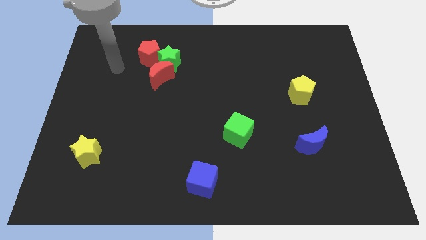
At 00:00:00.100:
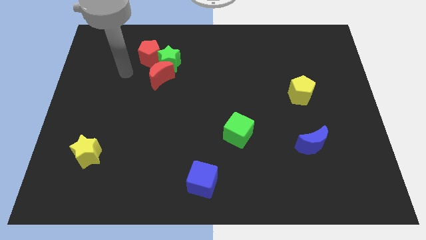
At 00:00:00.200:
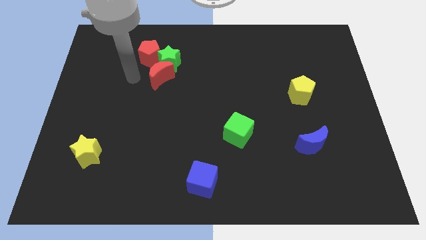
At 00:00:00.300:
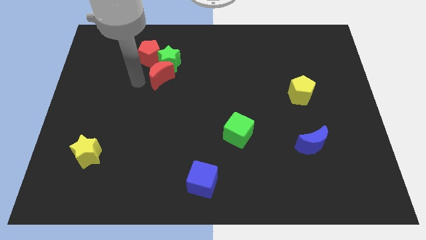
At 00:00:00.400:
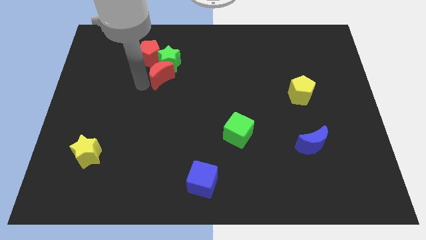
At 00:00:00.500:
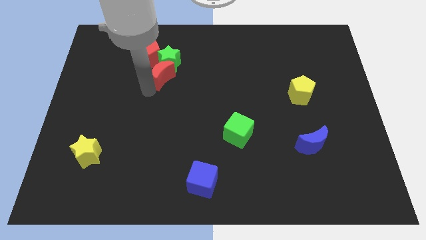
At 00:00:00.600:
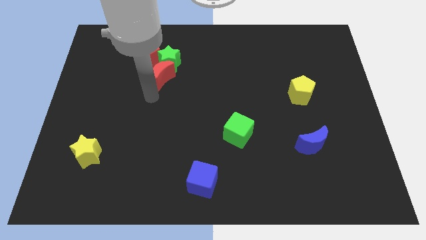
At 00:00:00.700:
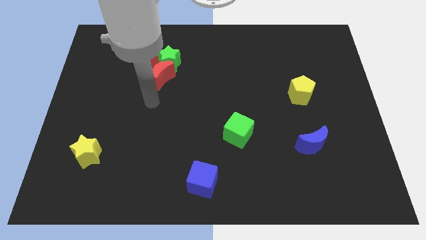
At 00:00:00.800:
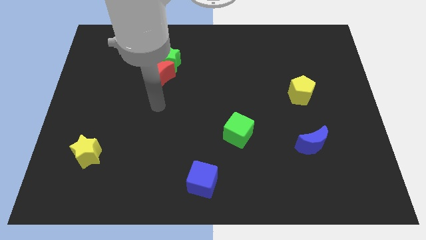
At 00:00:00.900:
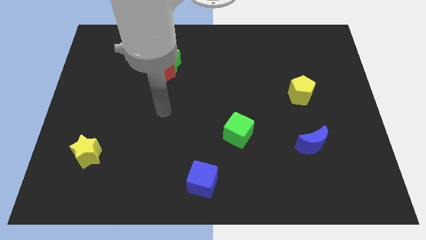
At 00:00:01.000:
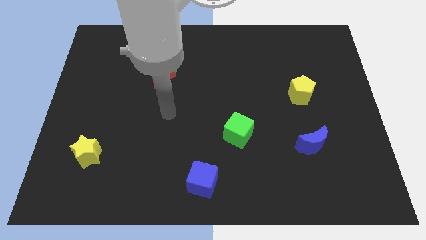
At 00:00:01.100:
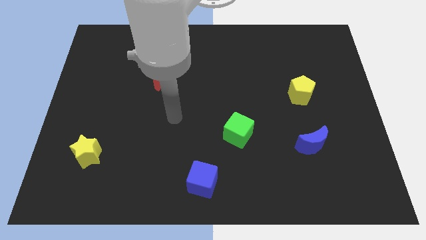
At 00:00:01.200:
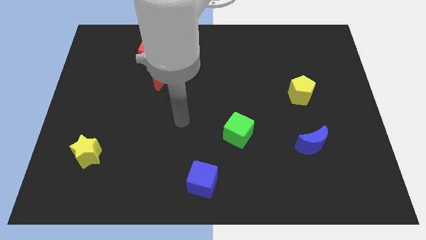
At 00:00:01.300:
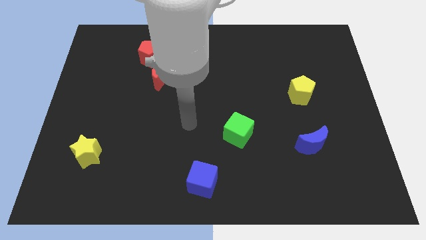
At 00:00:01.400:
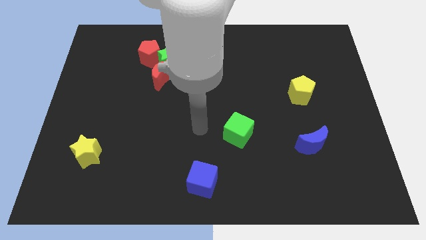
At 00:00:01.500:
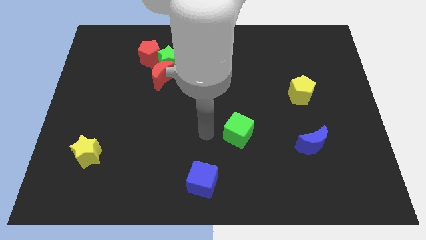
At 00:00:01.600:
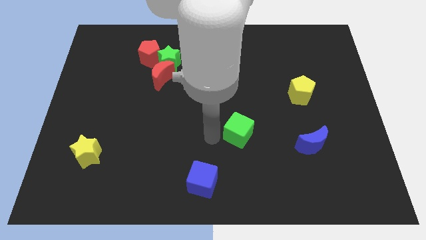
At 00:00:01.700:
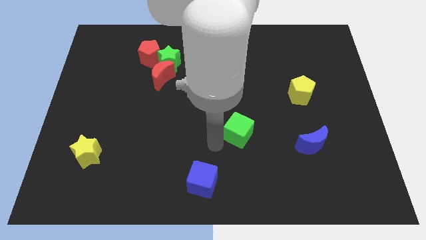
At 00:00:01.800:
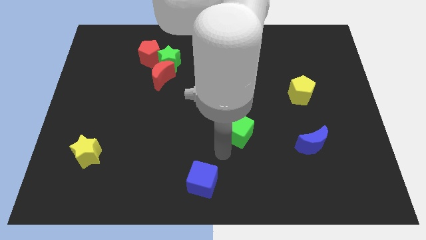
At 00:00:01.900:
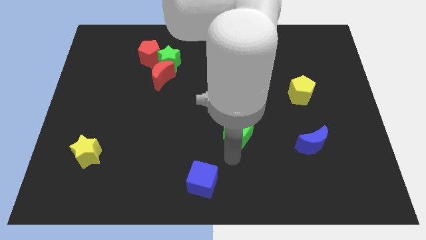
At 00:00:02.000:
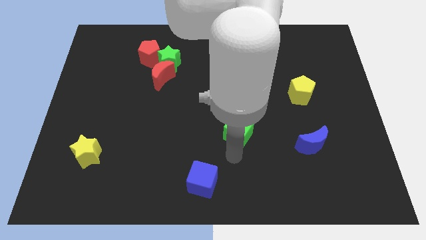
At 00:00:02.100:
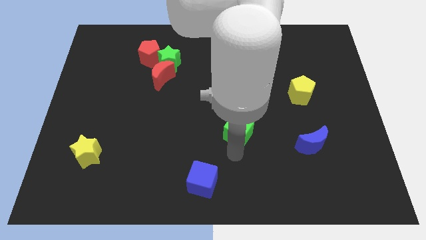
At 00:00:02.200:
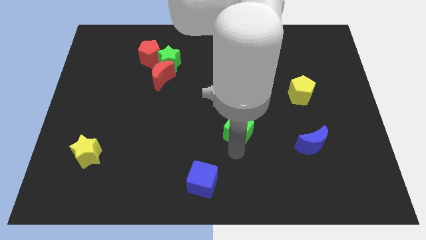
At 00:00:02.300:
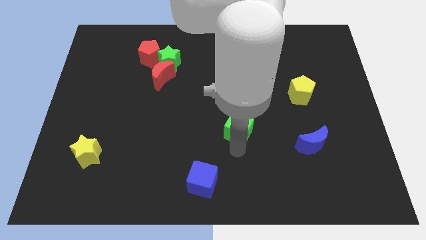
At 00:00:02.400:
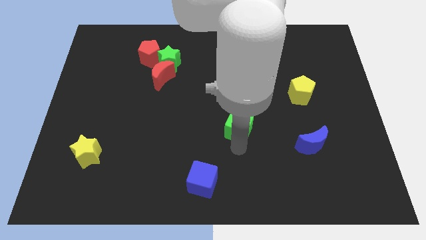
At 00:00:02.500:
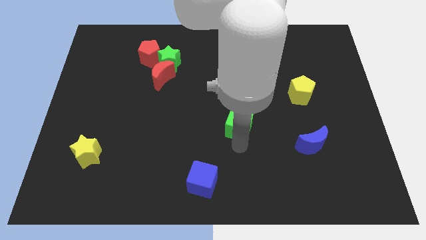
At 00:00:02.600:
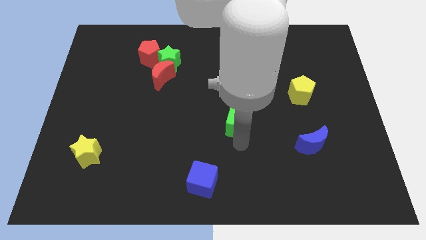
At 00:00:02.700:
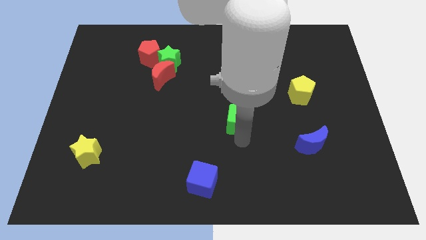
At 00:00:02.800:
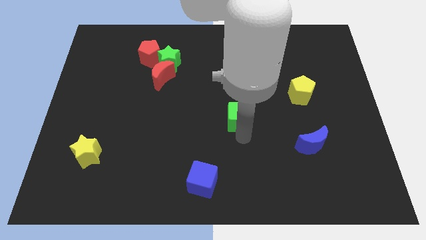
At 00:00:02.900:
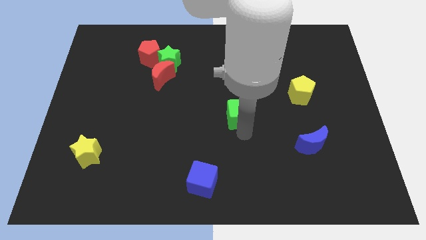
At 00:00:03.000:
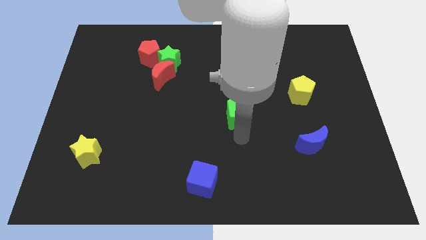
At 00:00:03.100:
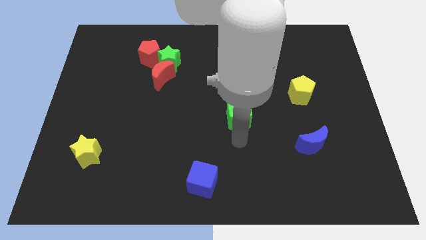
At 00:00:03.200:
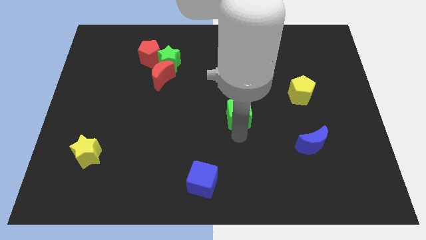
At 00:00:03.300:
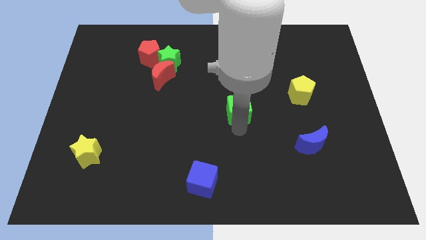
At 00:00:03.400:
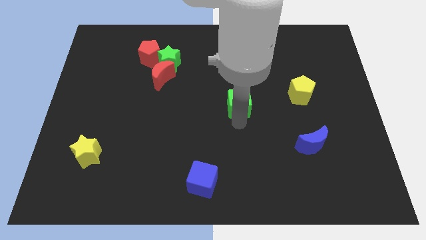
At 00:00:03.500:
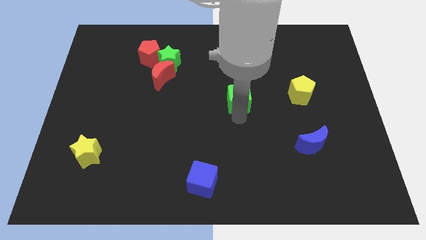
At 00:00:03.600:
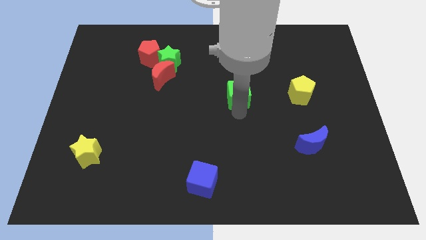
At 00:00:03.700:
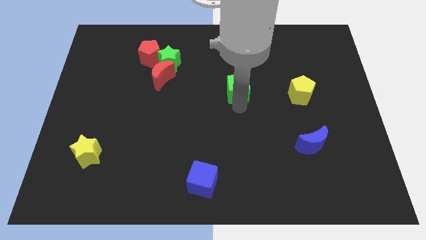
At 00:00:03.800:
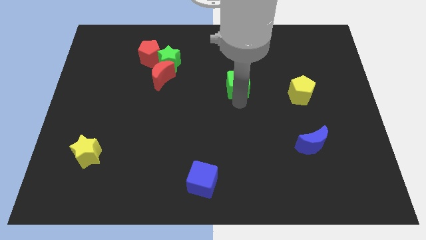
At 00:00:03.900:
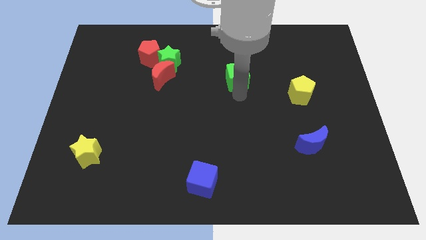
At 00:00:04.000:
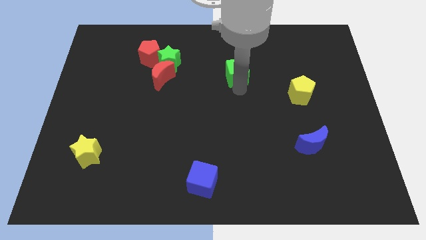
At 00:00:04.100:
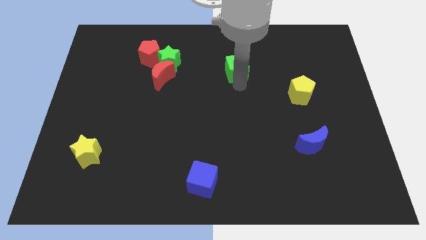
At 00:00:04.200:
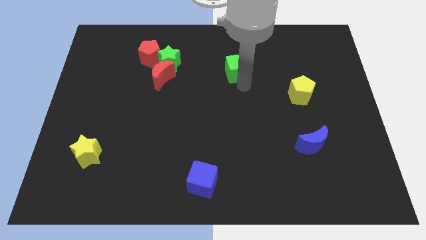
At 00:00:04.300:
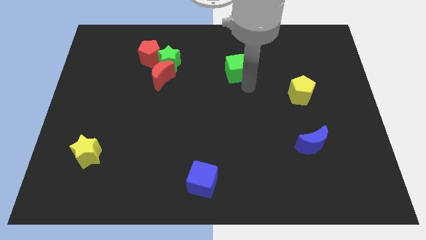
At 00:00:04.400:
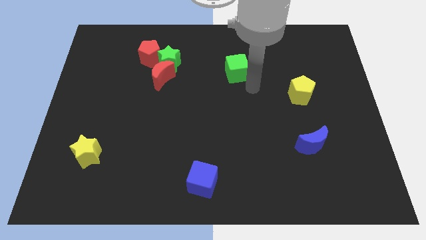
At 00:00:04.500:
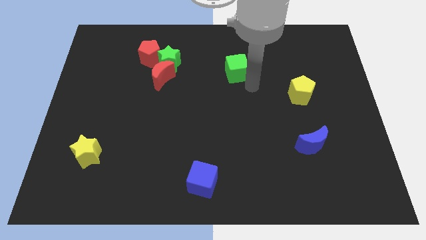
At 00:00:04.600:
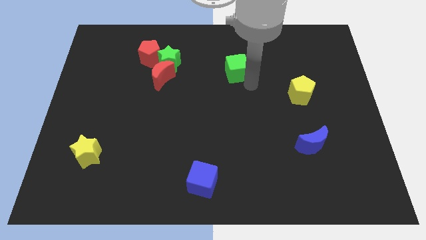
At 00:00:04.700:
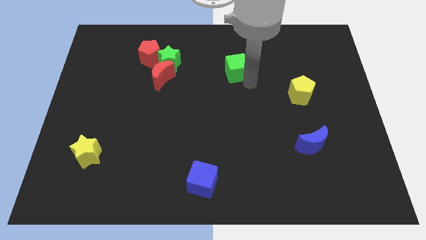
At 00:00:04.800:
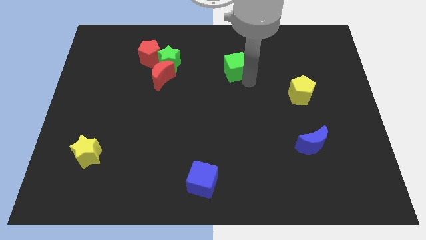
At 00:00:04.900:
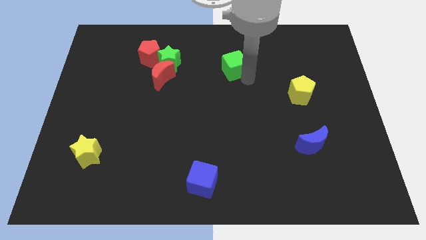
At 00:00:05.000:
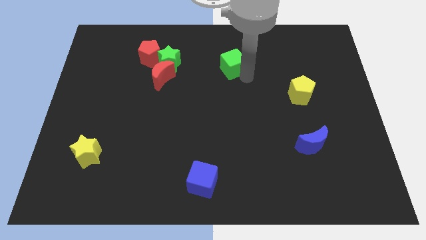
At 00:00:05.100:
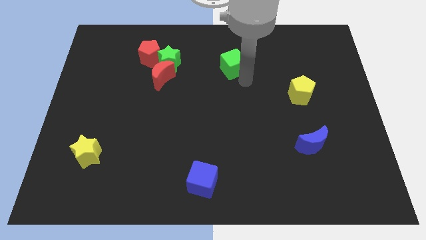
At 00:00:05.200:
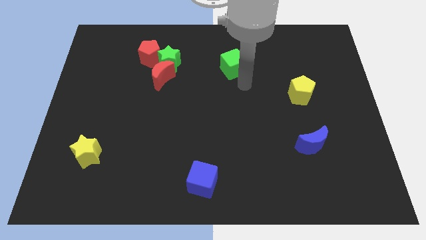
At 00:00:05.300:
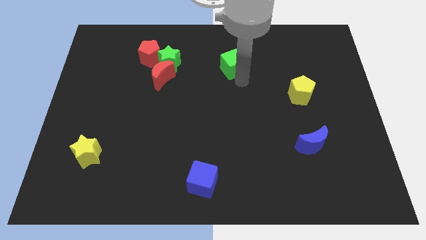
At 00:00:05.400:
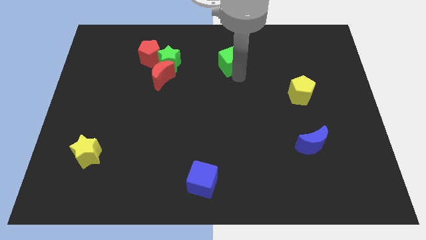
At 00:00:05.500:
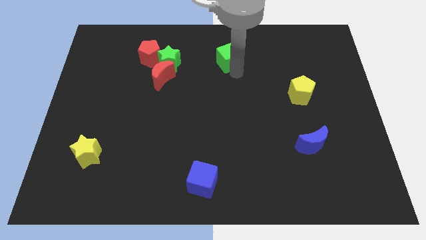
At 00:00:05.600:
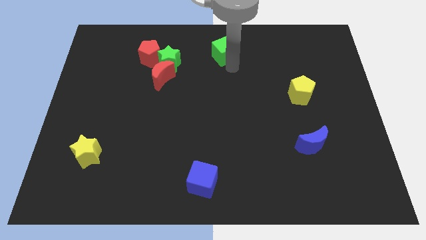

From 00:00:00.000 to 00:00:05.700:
move the green cube to the top
